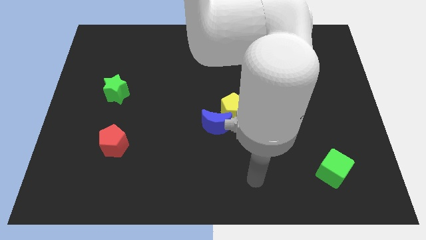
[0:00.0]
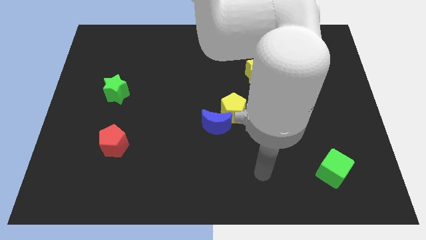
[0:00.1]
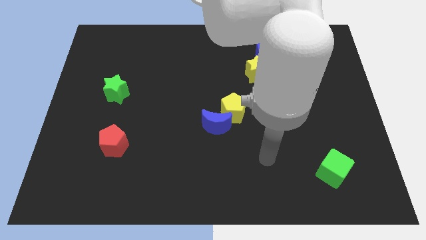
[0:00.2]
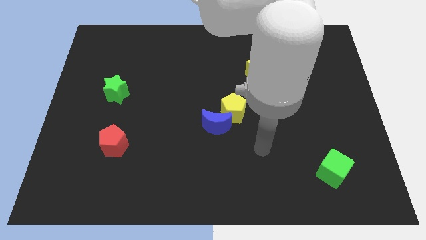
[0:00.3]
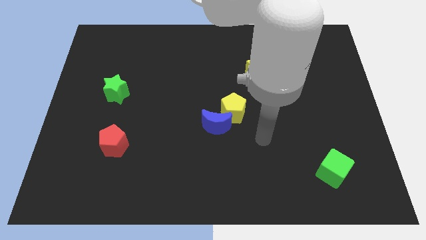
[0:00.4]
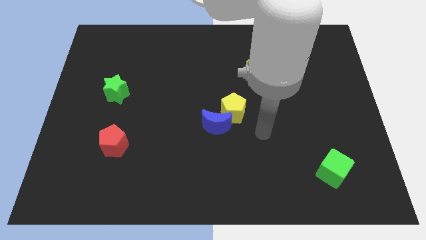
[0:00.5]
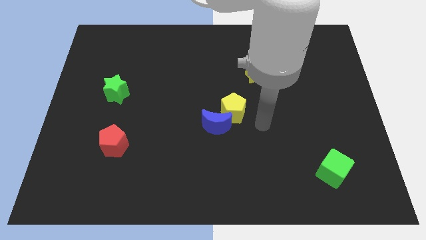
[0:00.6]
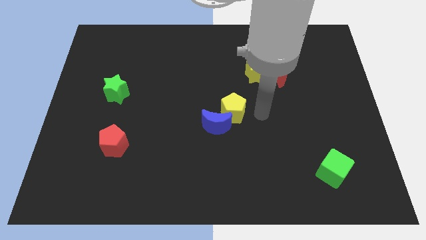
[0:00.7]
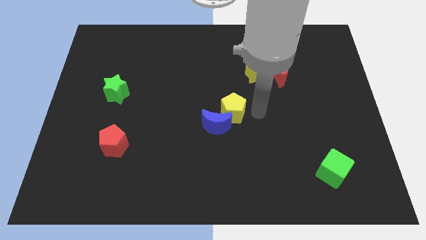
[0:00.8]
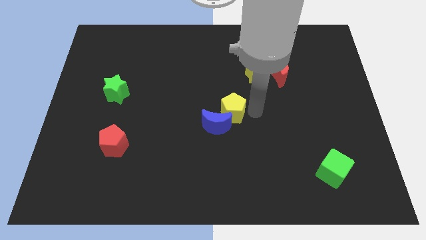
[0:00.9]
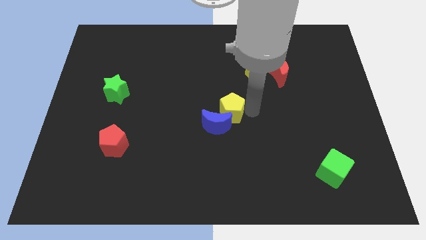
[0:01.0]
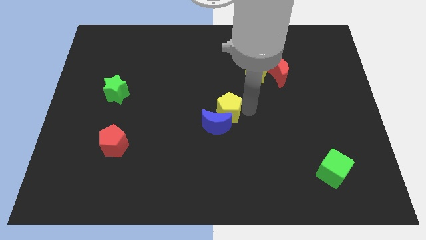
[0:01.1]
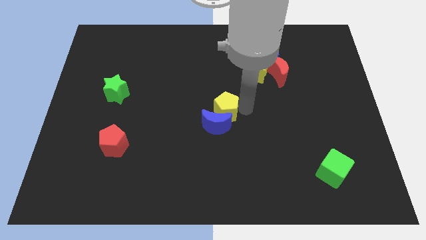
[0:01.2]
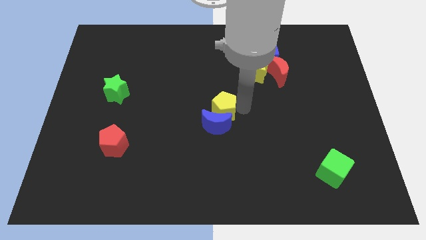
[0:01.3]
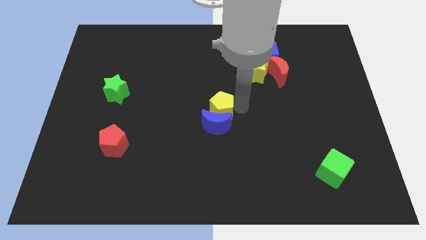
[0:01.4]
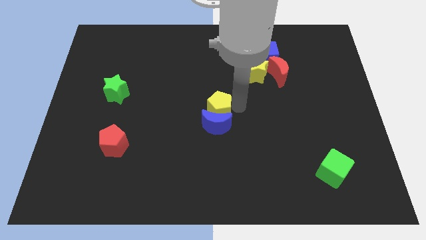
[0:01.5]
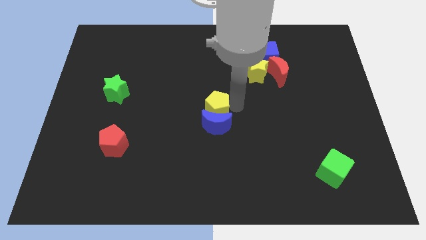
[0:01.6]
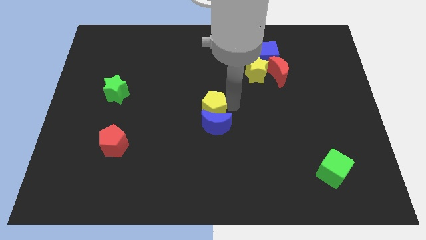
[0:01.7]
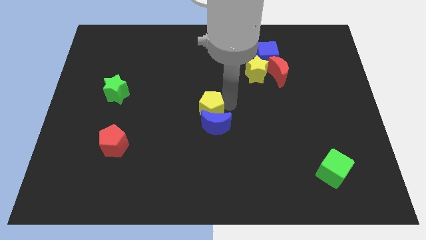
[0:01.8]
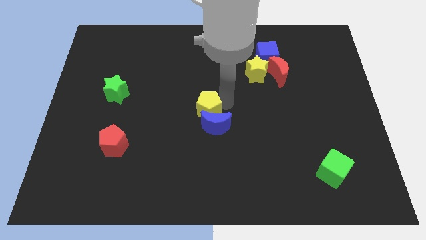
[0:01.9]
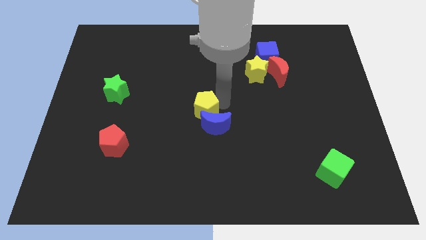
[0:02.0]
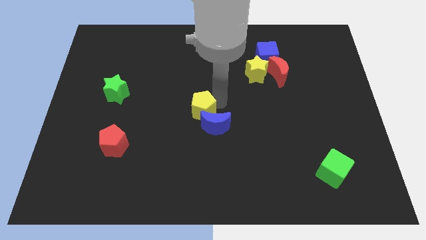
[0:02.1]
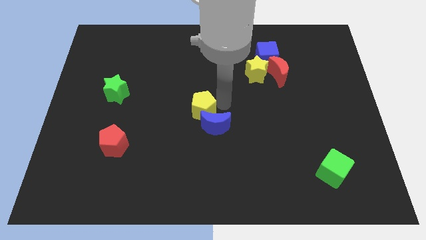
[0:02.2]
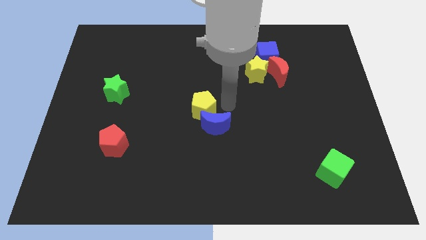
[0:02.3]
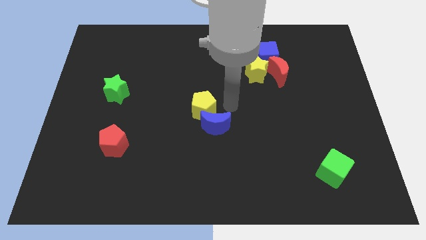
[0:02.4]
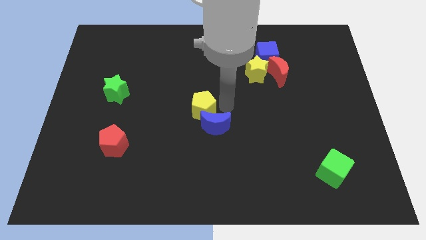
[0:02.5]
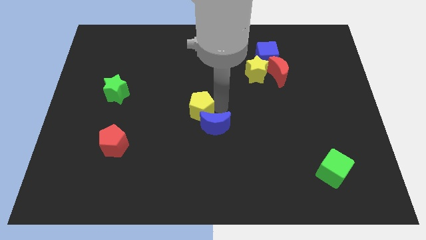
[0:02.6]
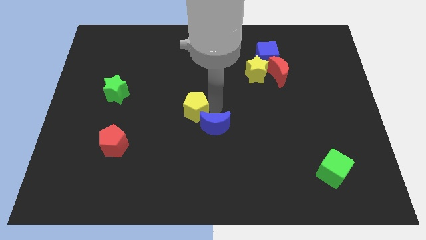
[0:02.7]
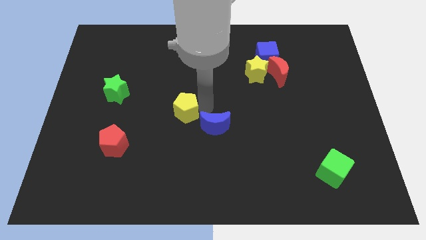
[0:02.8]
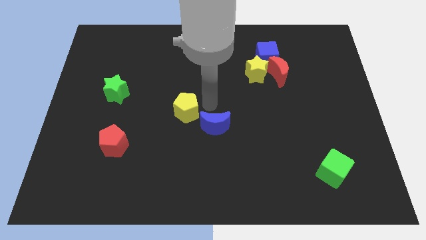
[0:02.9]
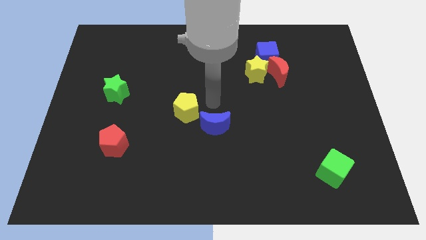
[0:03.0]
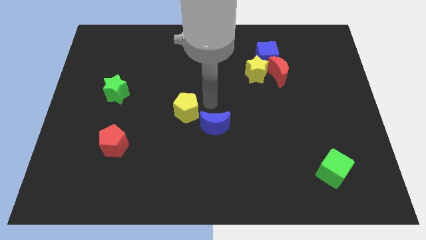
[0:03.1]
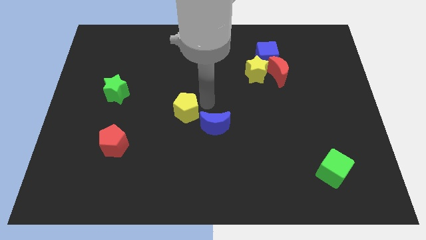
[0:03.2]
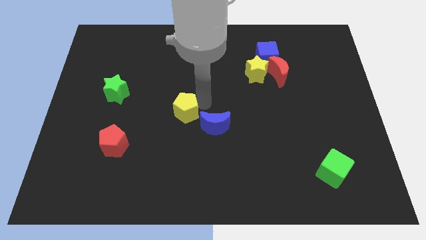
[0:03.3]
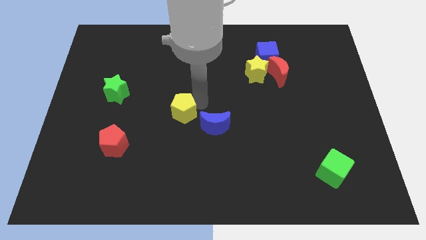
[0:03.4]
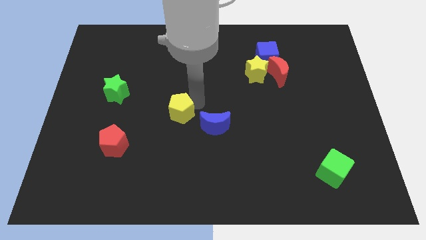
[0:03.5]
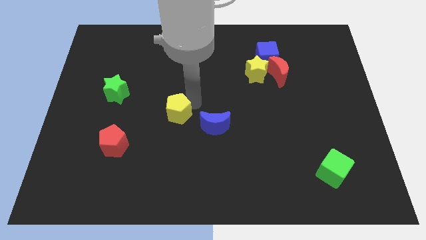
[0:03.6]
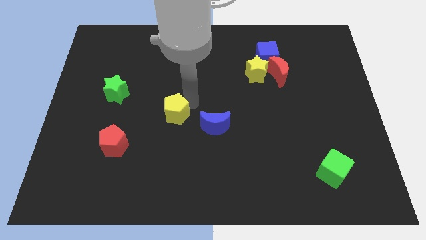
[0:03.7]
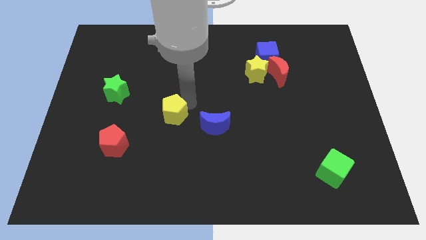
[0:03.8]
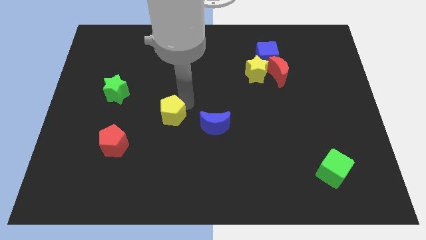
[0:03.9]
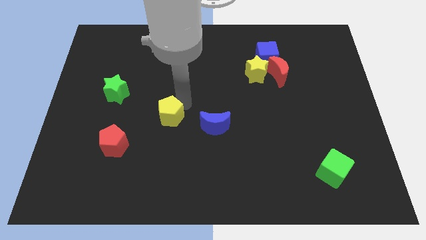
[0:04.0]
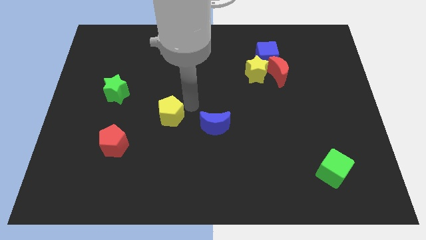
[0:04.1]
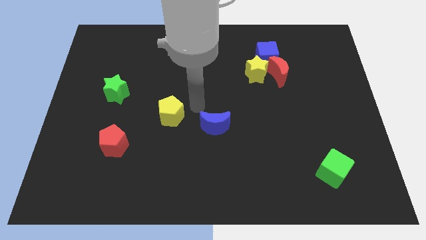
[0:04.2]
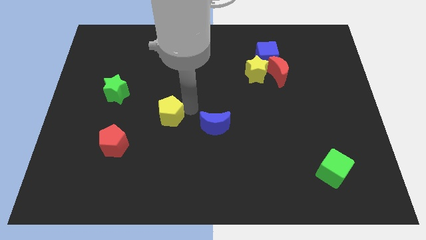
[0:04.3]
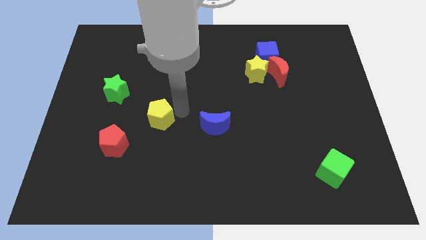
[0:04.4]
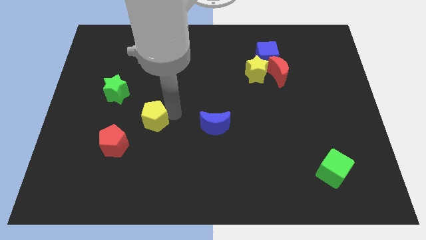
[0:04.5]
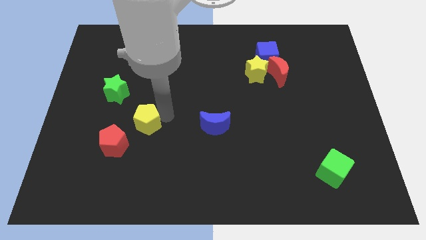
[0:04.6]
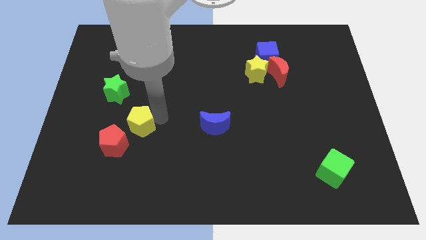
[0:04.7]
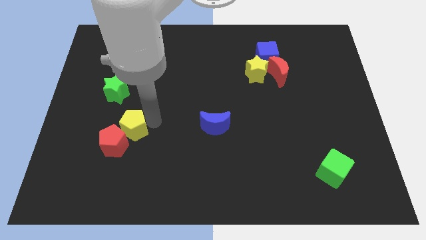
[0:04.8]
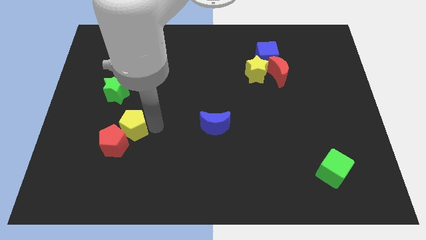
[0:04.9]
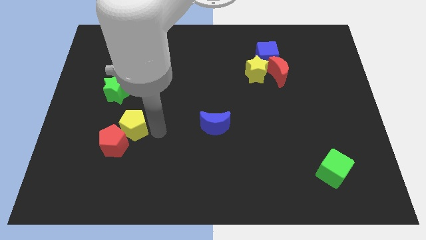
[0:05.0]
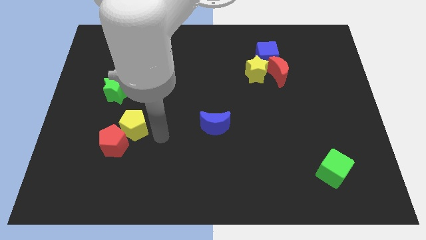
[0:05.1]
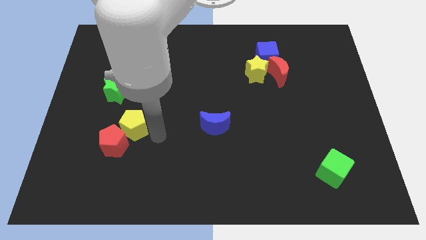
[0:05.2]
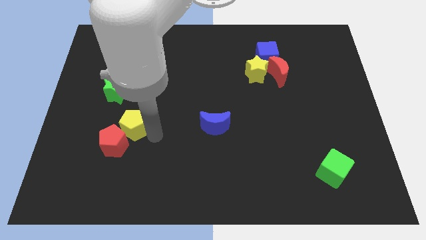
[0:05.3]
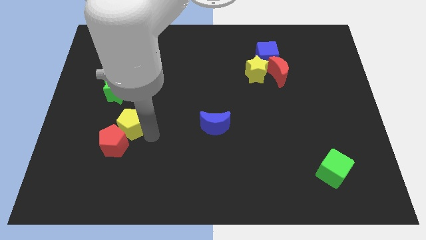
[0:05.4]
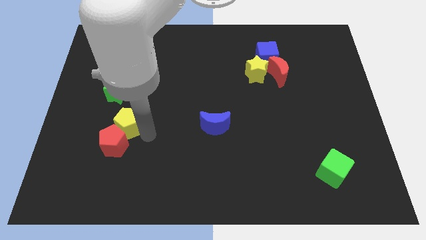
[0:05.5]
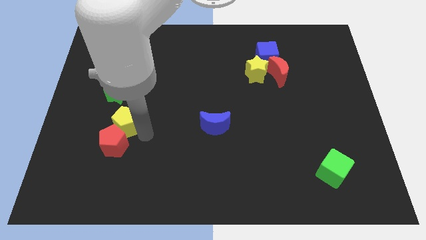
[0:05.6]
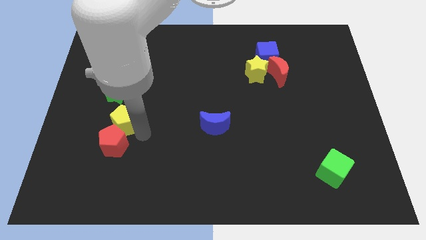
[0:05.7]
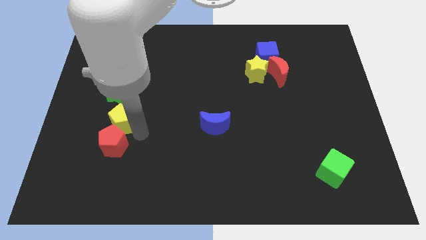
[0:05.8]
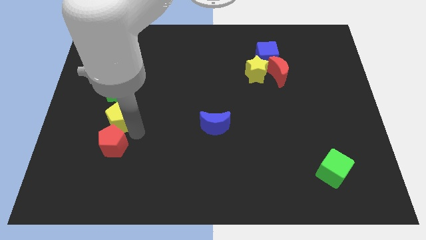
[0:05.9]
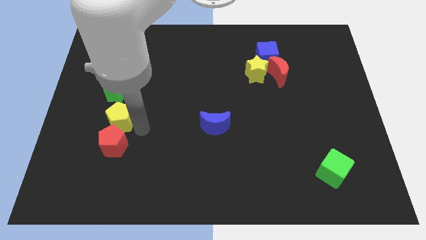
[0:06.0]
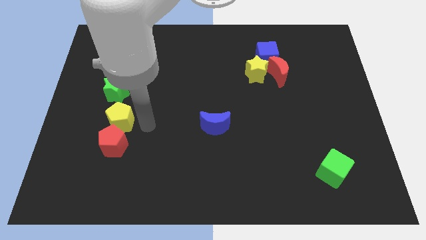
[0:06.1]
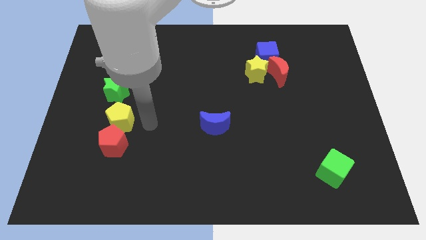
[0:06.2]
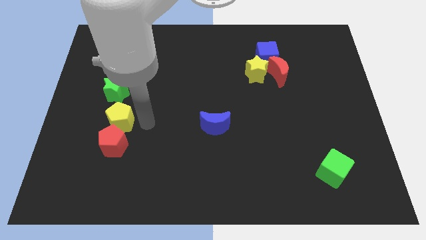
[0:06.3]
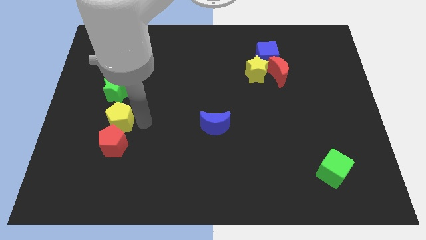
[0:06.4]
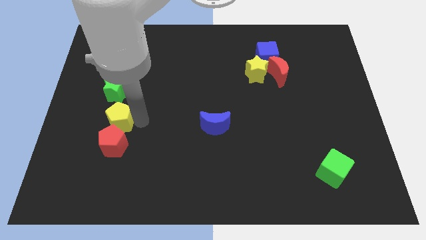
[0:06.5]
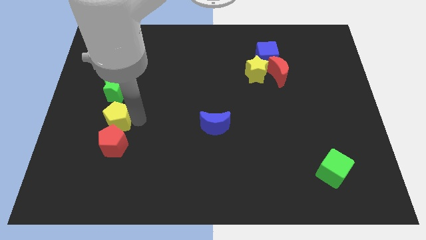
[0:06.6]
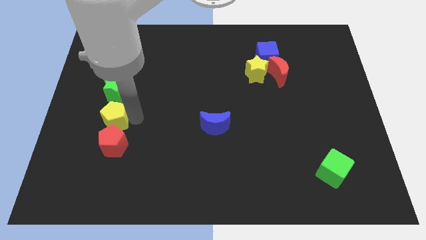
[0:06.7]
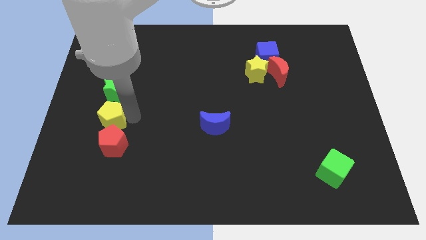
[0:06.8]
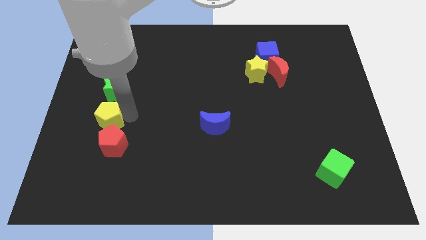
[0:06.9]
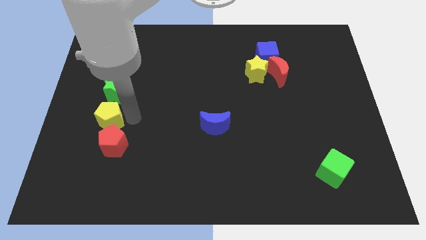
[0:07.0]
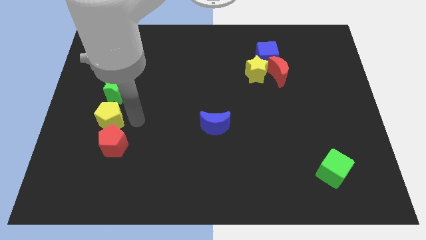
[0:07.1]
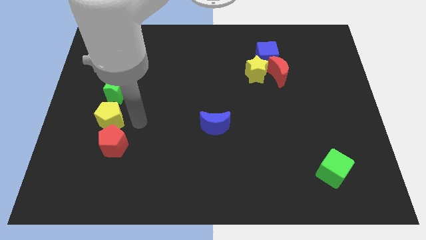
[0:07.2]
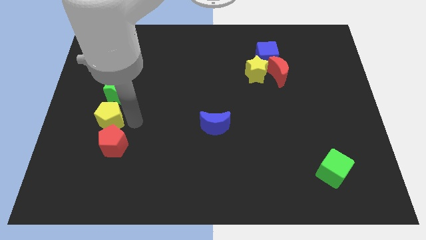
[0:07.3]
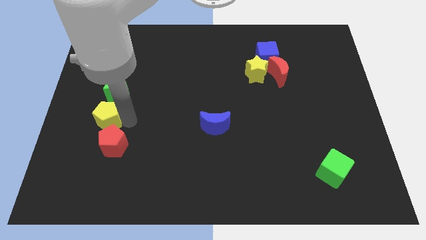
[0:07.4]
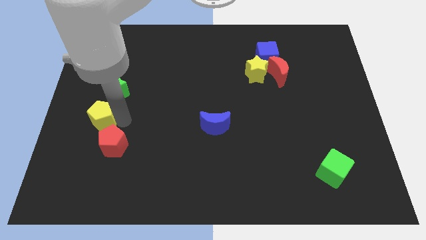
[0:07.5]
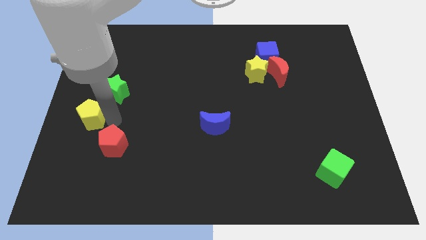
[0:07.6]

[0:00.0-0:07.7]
move the yellow pentagon to the left side
